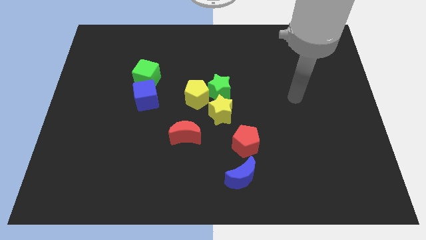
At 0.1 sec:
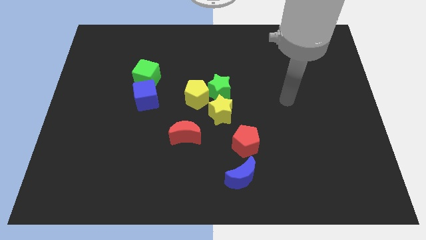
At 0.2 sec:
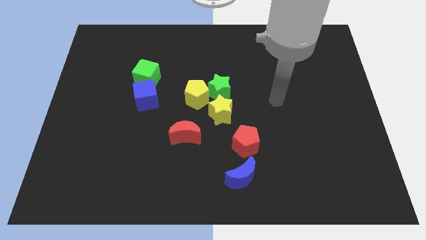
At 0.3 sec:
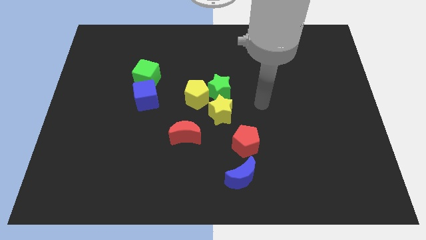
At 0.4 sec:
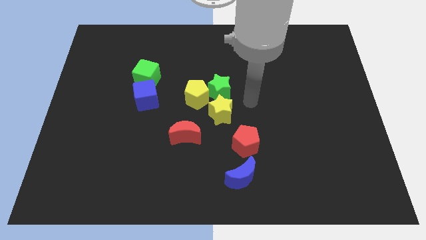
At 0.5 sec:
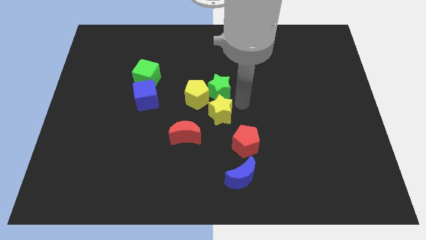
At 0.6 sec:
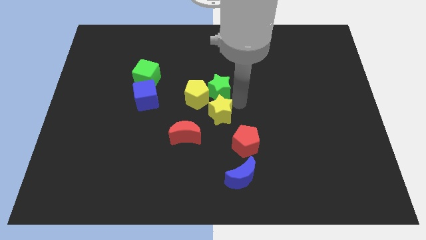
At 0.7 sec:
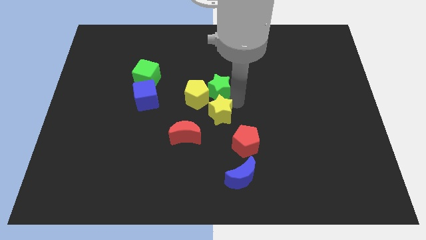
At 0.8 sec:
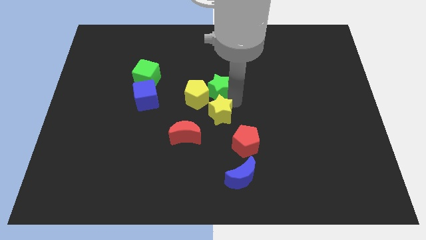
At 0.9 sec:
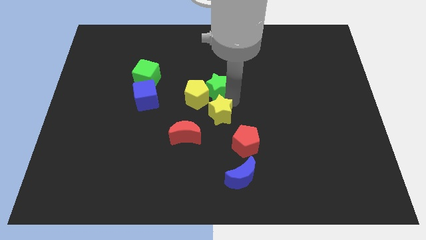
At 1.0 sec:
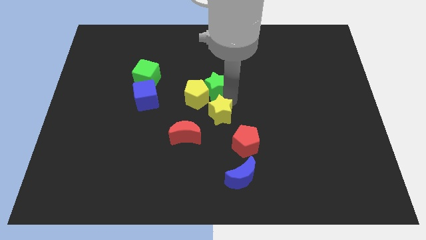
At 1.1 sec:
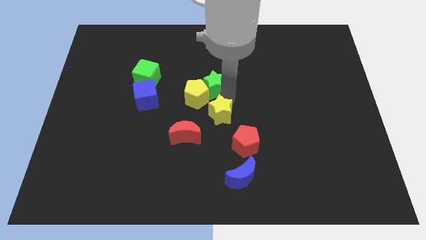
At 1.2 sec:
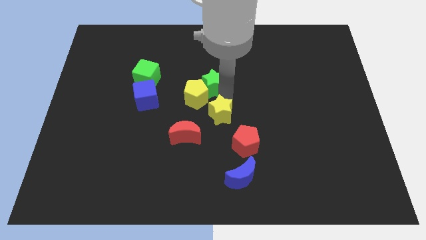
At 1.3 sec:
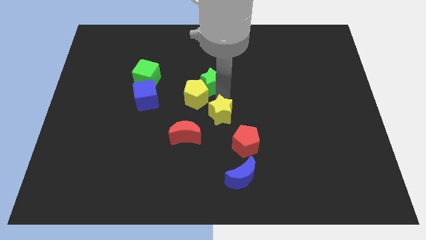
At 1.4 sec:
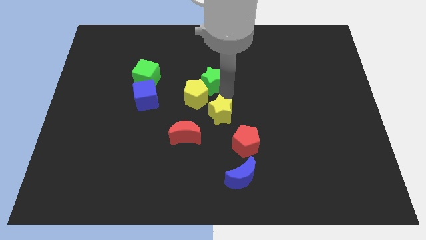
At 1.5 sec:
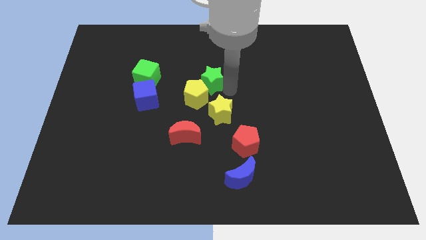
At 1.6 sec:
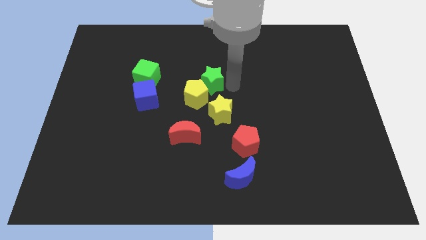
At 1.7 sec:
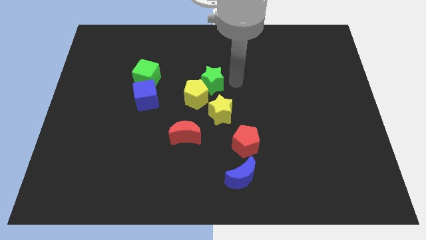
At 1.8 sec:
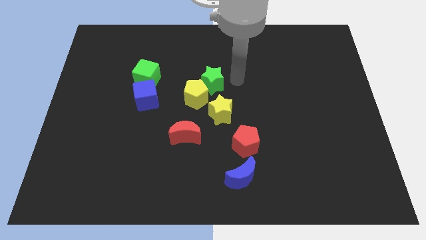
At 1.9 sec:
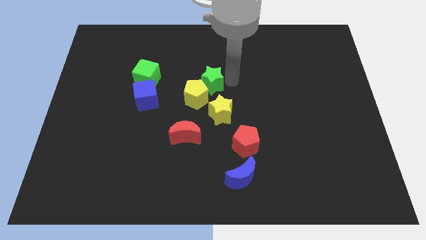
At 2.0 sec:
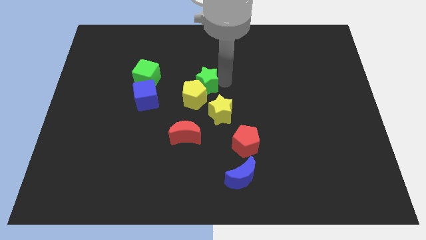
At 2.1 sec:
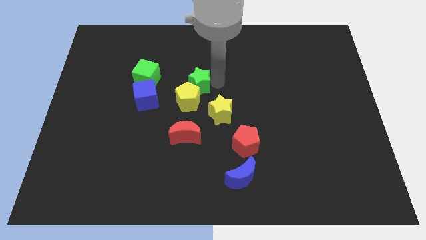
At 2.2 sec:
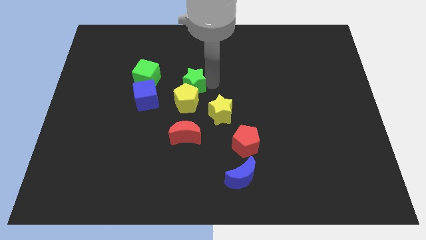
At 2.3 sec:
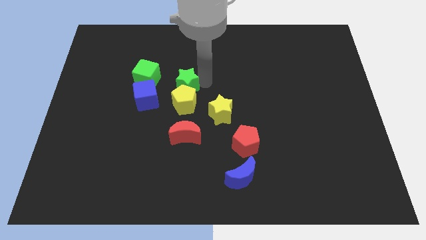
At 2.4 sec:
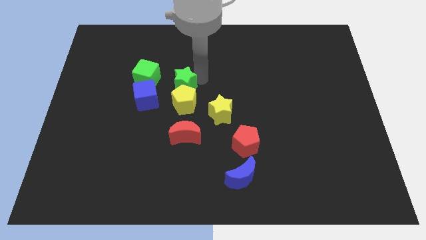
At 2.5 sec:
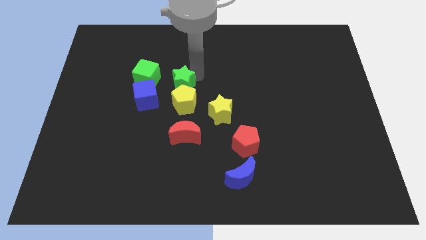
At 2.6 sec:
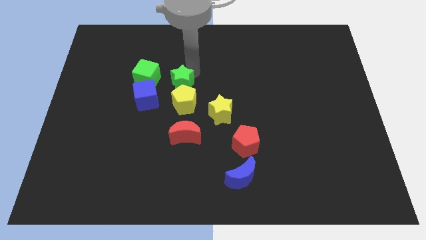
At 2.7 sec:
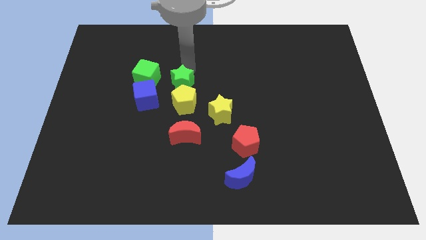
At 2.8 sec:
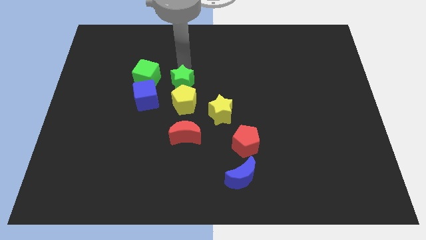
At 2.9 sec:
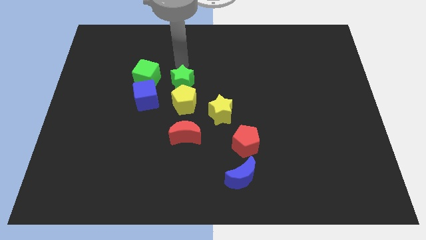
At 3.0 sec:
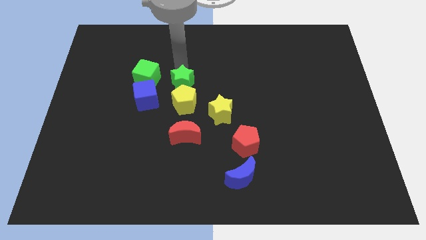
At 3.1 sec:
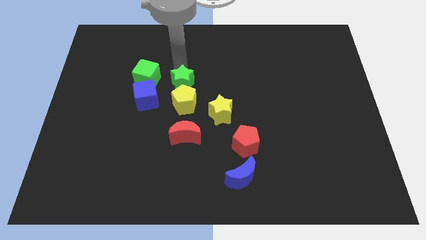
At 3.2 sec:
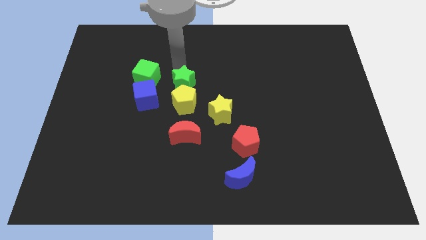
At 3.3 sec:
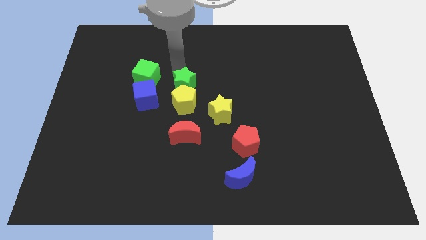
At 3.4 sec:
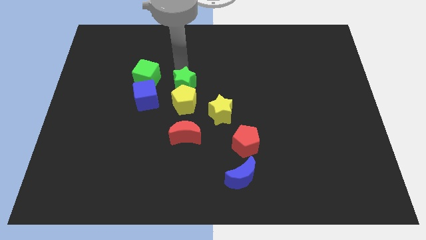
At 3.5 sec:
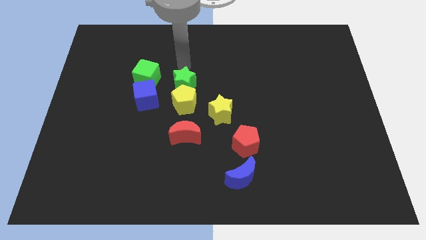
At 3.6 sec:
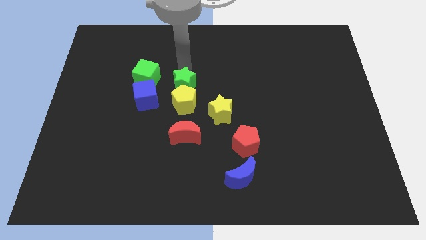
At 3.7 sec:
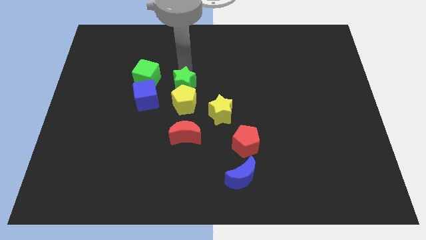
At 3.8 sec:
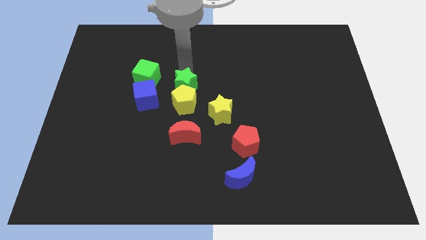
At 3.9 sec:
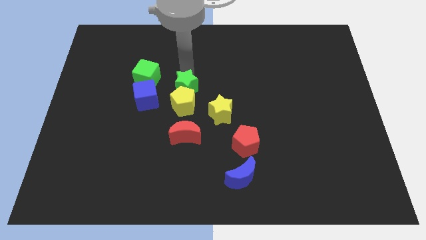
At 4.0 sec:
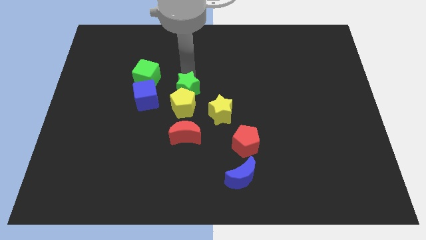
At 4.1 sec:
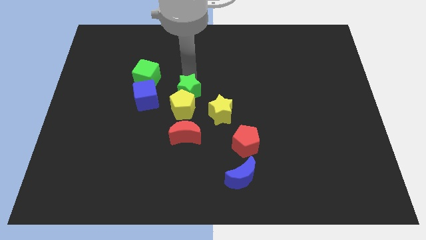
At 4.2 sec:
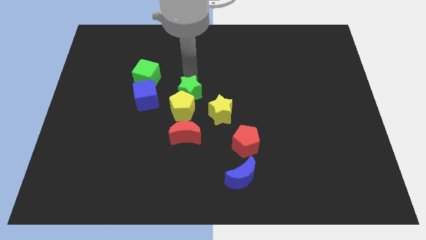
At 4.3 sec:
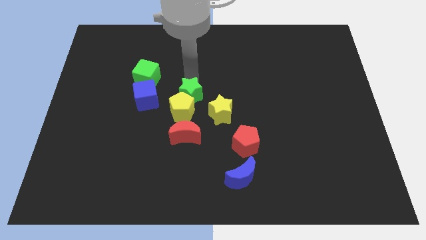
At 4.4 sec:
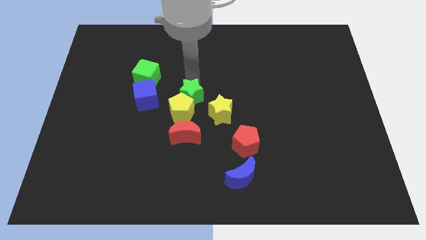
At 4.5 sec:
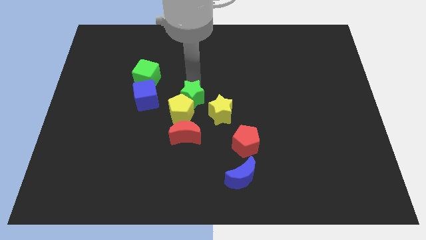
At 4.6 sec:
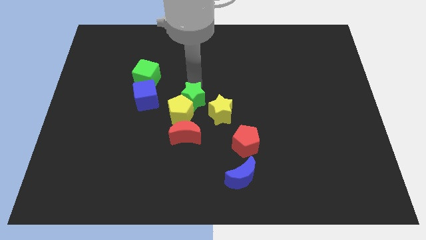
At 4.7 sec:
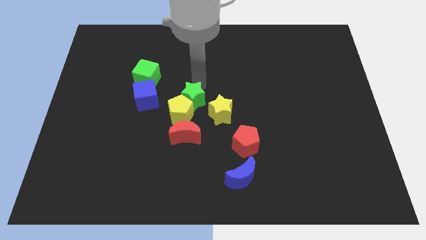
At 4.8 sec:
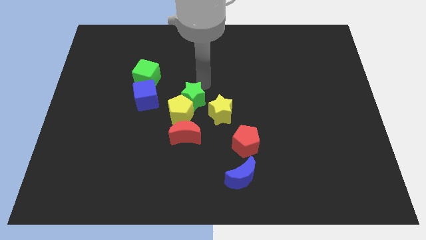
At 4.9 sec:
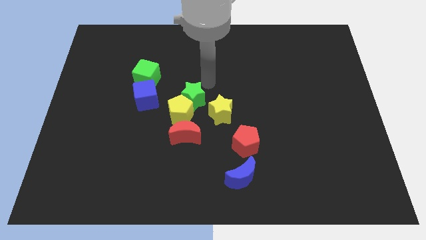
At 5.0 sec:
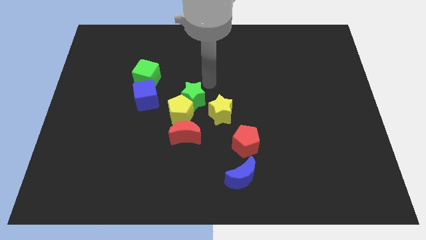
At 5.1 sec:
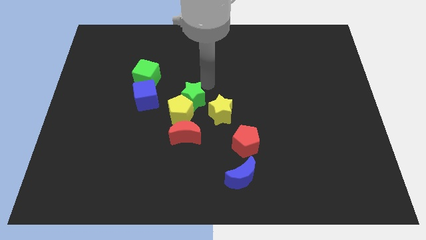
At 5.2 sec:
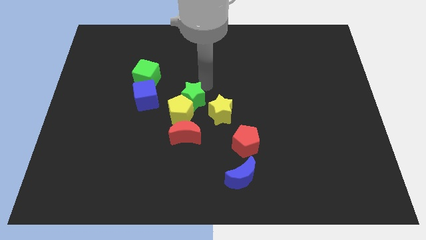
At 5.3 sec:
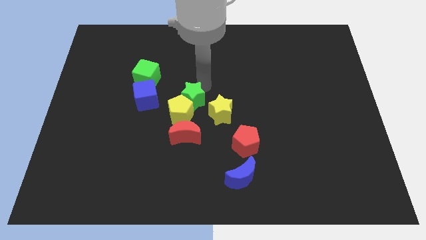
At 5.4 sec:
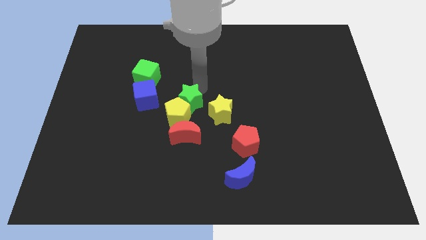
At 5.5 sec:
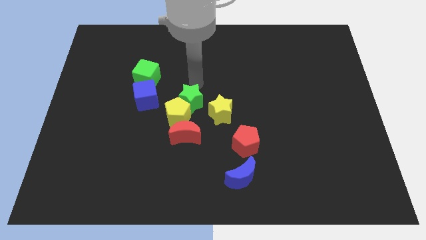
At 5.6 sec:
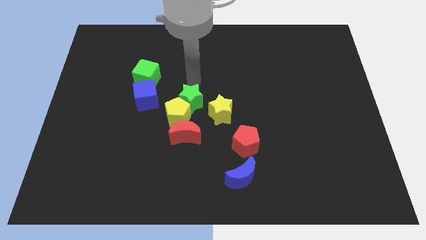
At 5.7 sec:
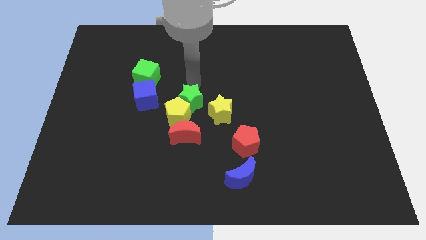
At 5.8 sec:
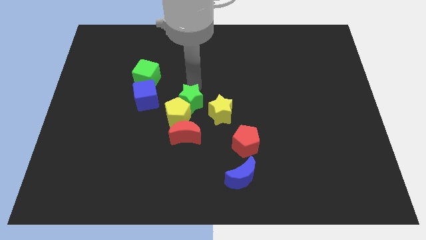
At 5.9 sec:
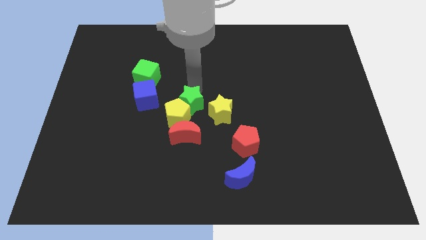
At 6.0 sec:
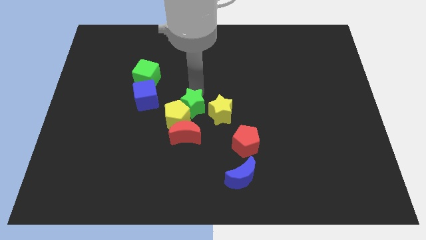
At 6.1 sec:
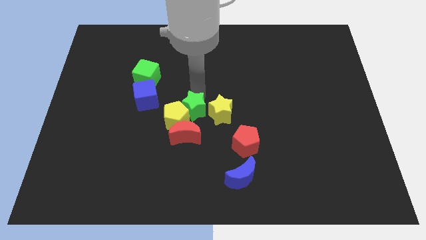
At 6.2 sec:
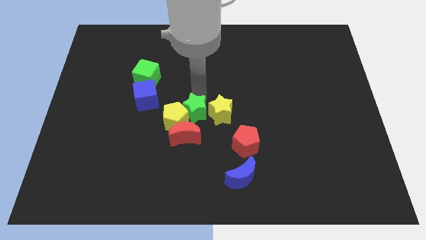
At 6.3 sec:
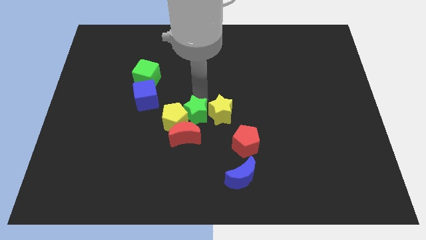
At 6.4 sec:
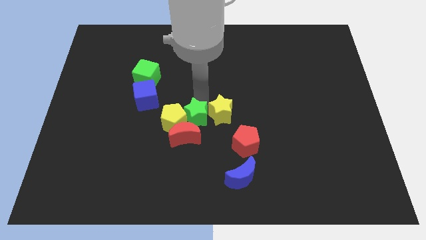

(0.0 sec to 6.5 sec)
push the green star to the red moon
